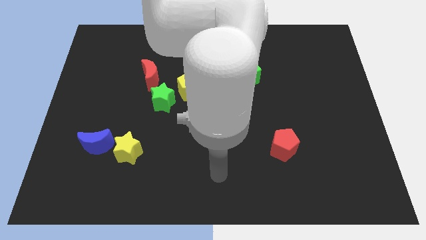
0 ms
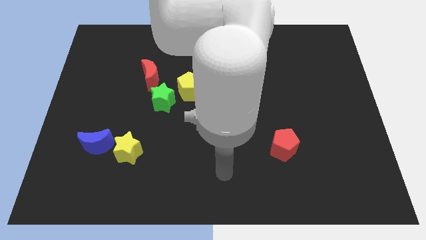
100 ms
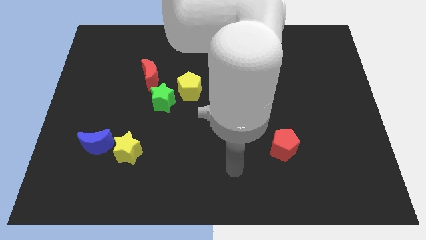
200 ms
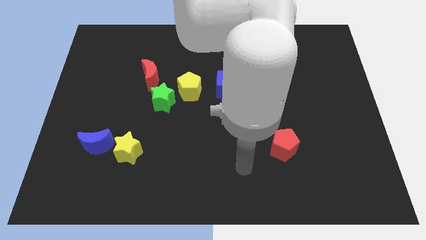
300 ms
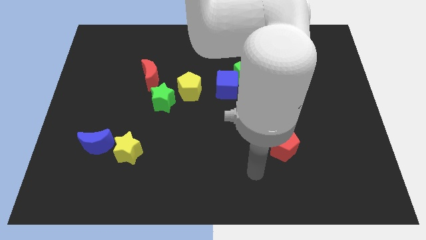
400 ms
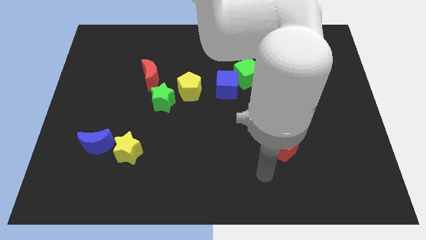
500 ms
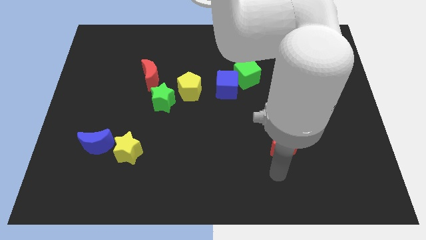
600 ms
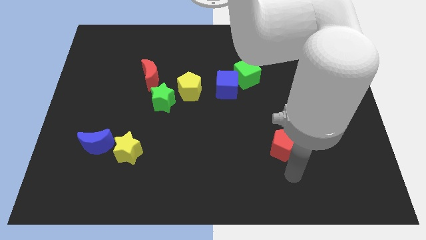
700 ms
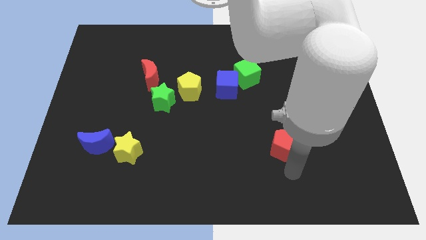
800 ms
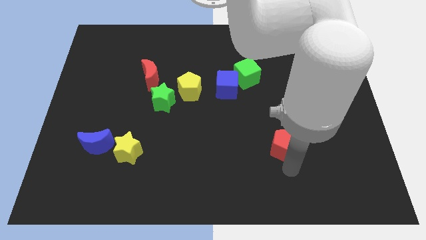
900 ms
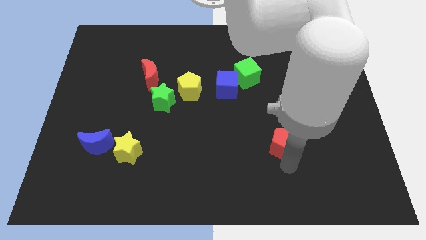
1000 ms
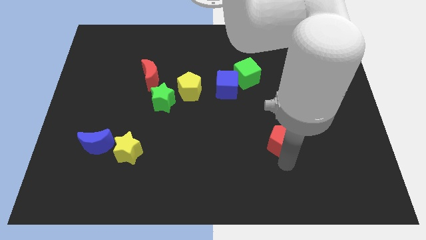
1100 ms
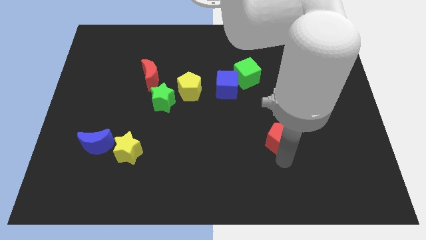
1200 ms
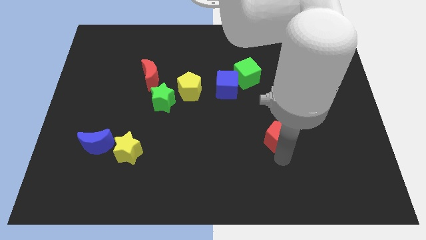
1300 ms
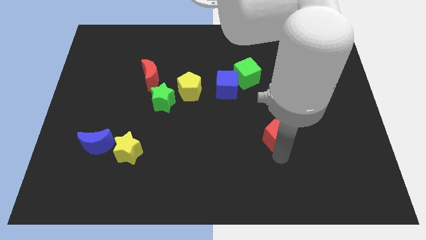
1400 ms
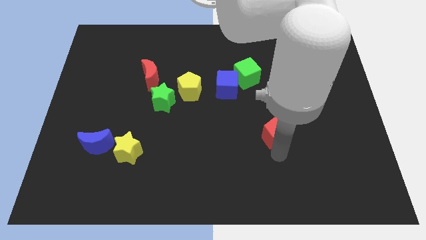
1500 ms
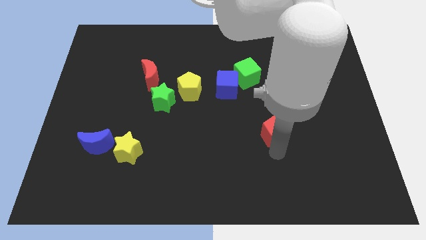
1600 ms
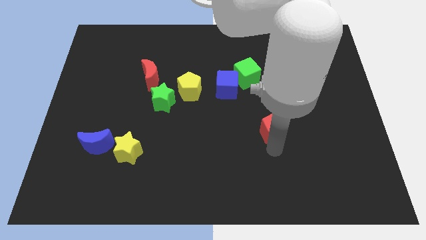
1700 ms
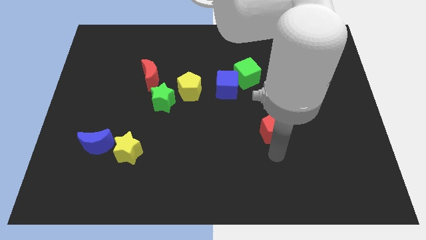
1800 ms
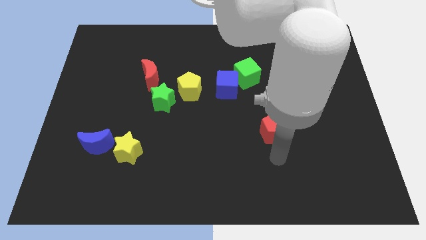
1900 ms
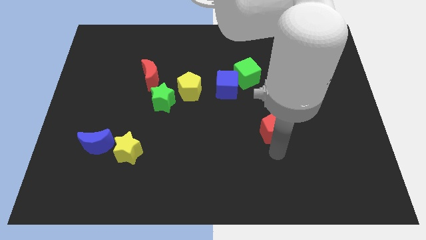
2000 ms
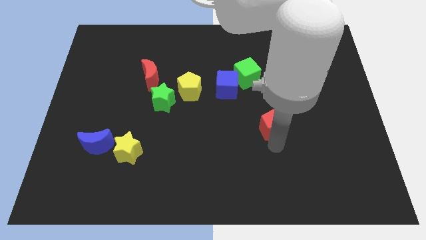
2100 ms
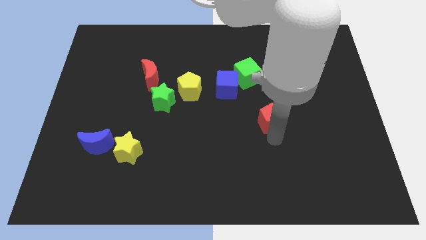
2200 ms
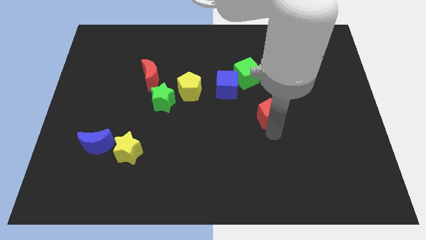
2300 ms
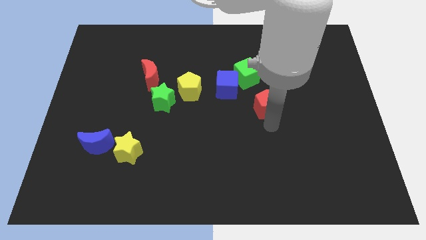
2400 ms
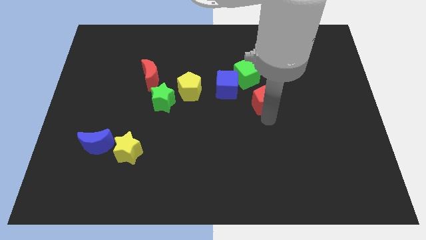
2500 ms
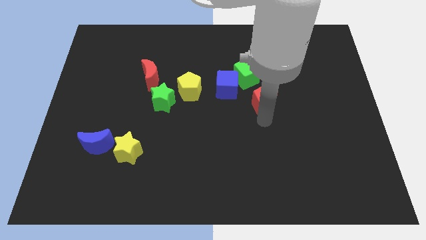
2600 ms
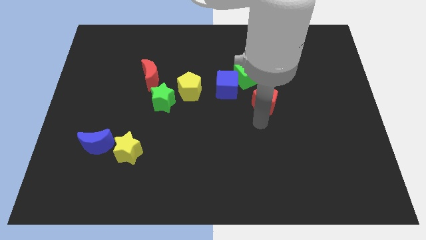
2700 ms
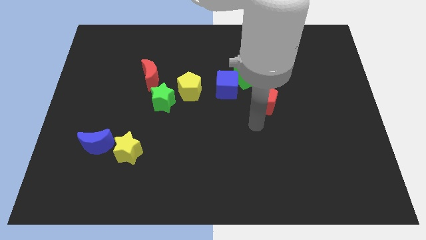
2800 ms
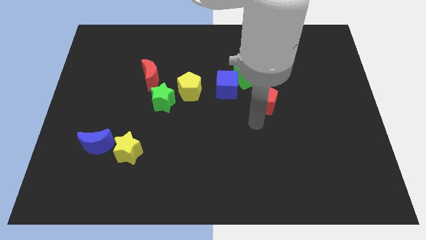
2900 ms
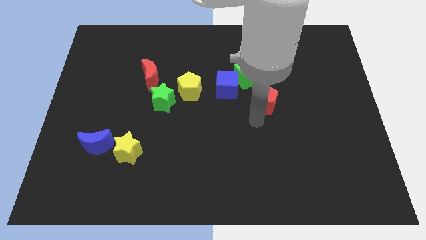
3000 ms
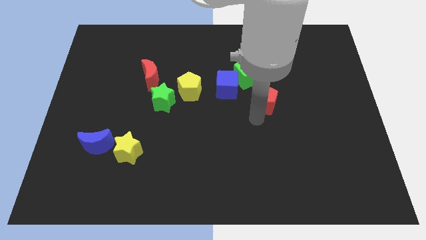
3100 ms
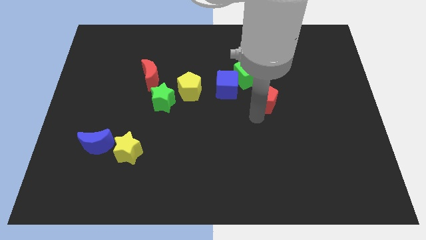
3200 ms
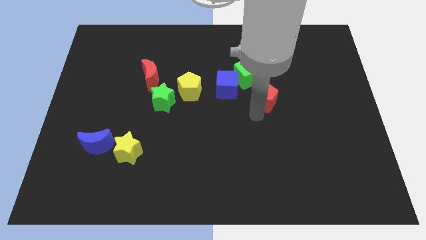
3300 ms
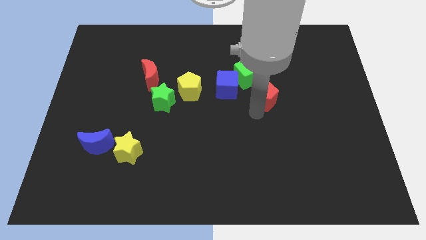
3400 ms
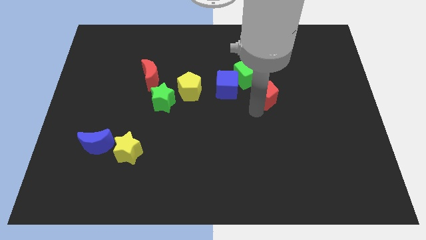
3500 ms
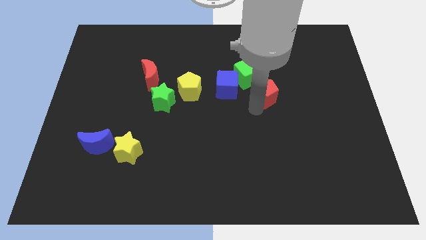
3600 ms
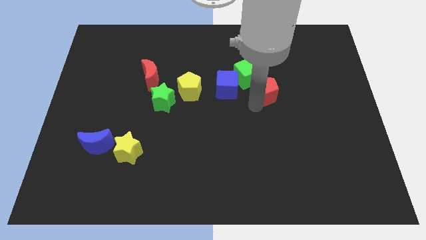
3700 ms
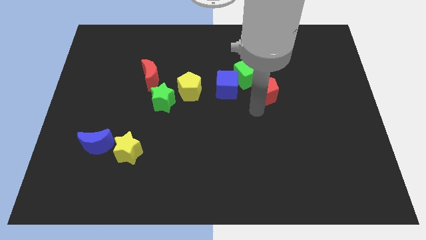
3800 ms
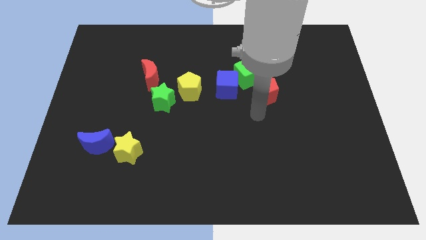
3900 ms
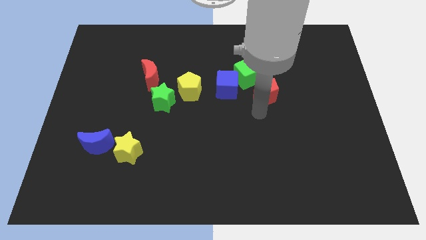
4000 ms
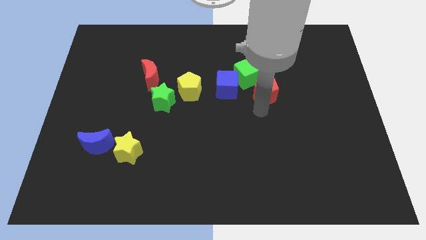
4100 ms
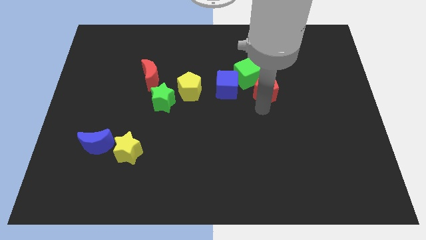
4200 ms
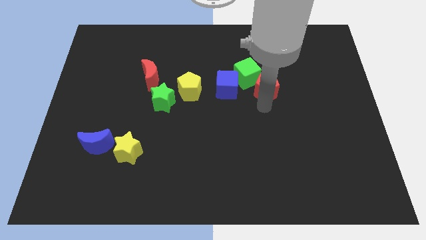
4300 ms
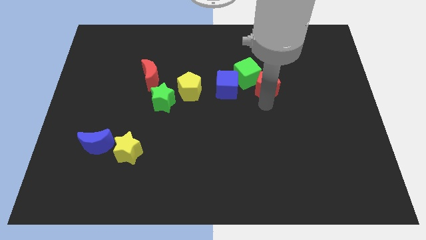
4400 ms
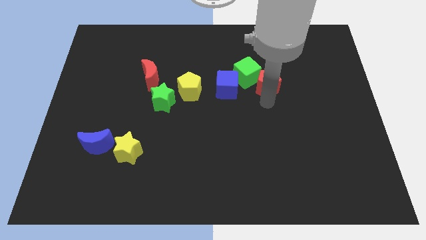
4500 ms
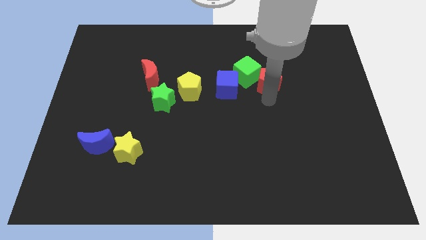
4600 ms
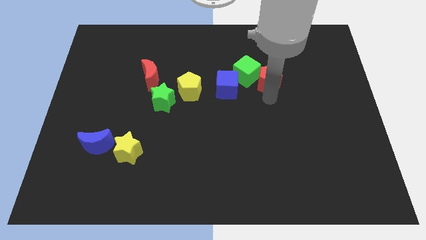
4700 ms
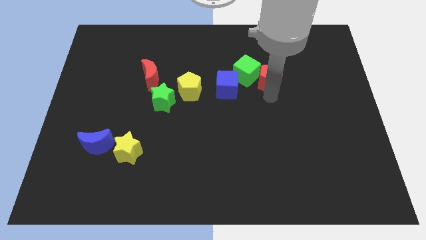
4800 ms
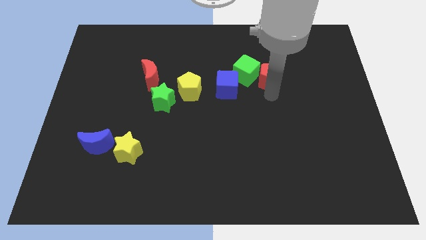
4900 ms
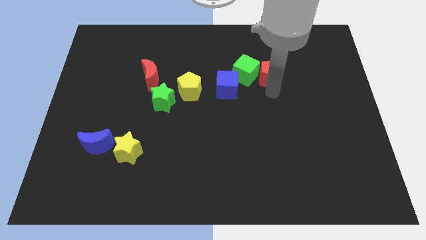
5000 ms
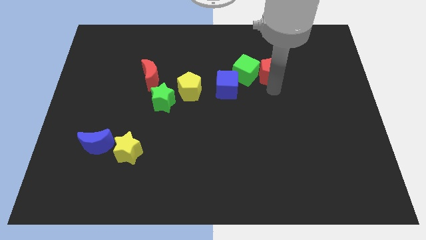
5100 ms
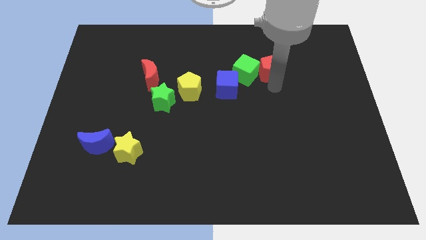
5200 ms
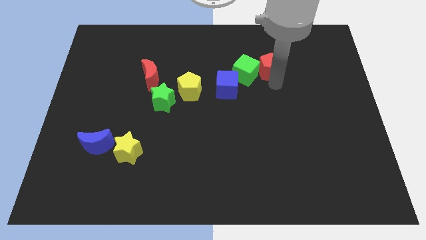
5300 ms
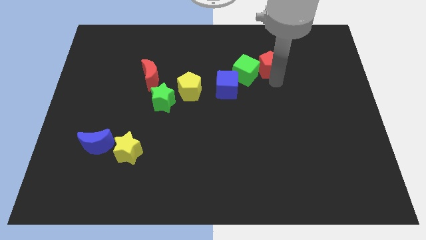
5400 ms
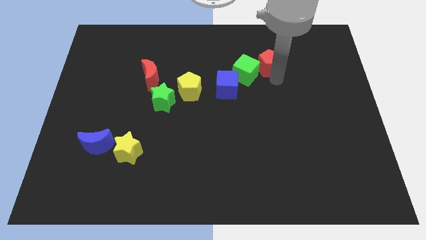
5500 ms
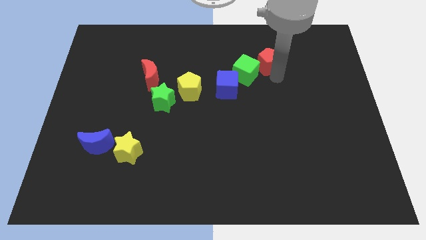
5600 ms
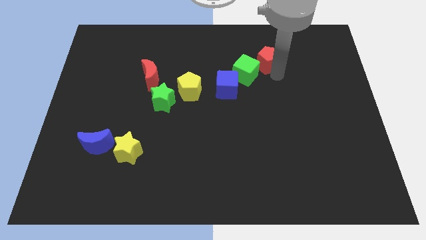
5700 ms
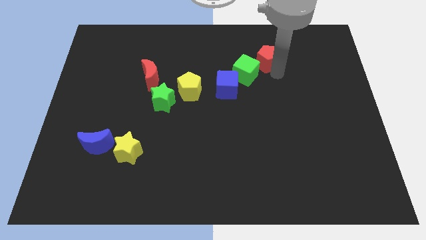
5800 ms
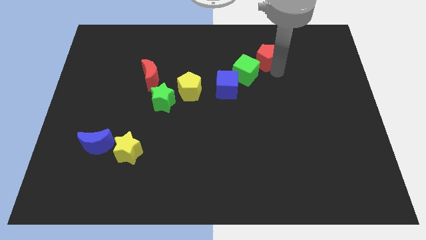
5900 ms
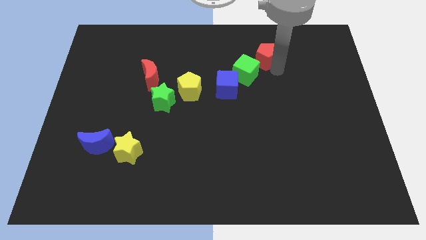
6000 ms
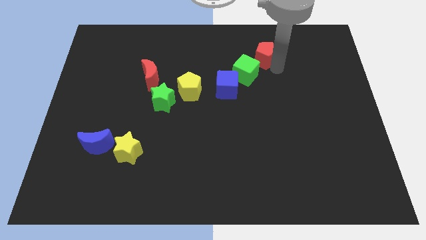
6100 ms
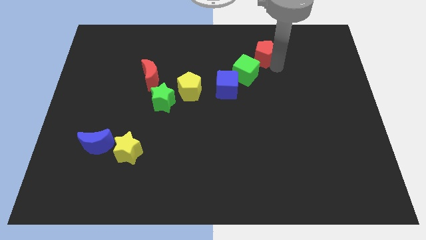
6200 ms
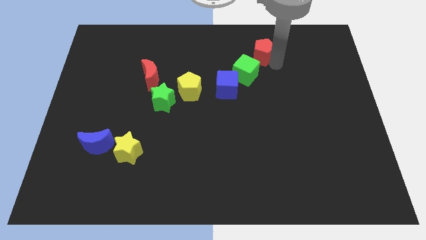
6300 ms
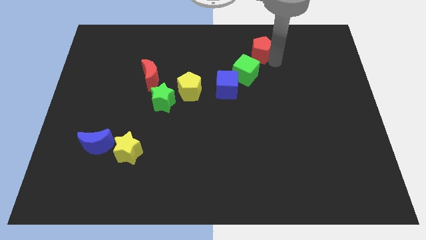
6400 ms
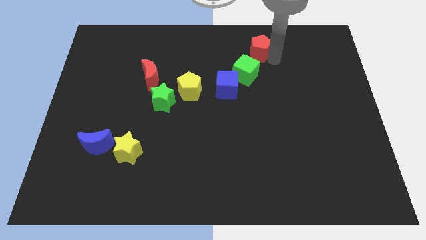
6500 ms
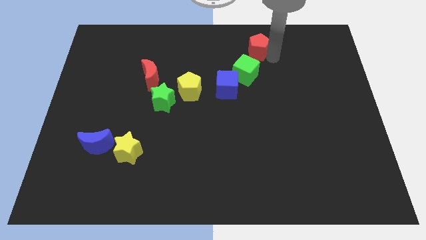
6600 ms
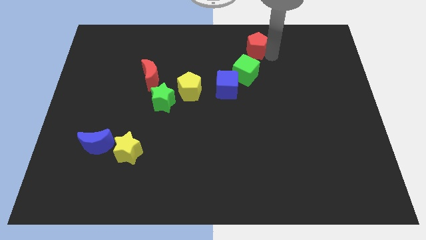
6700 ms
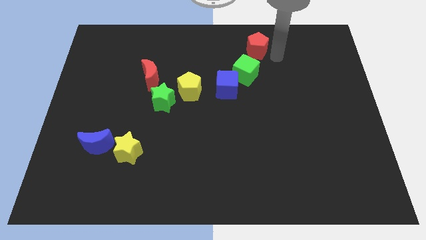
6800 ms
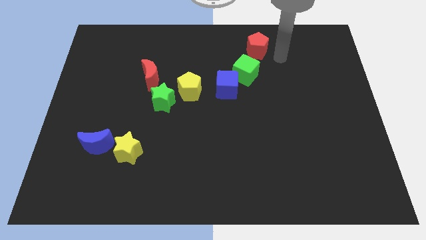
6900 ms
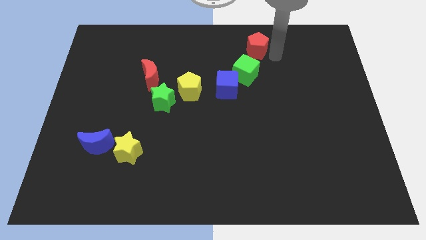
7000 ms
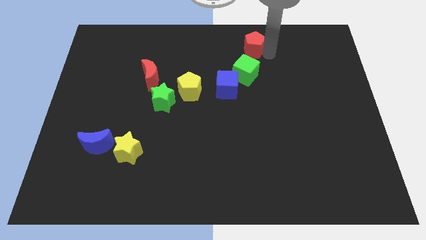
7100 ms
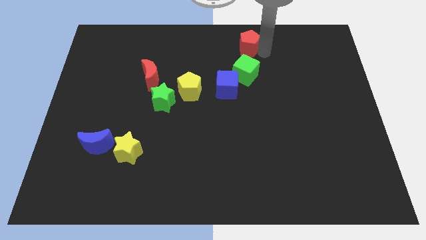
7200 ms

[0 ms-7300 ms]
put the red pentagon to the top side
